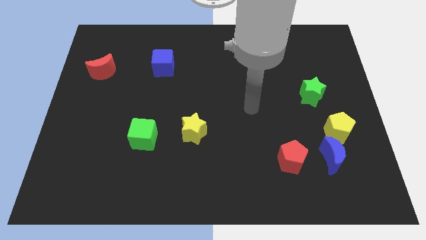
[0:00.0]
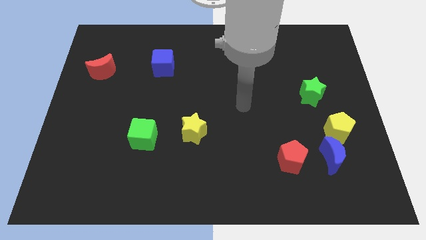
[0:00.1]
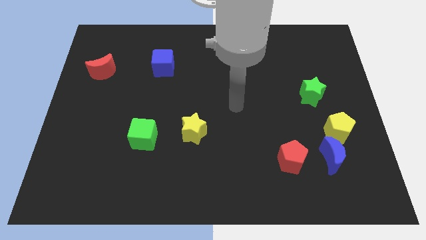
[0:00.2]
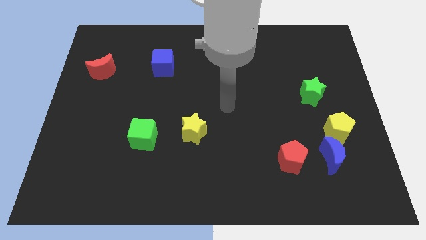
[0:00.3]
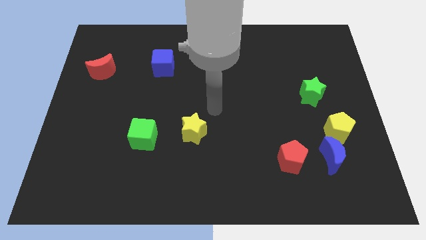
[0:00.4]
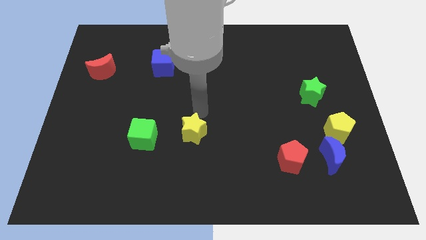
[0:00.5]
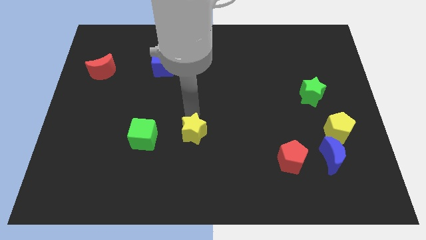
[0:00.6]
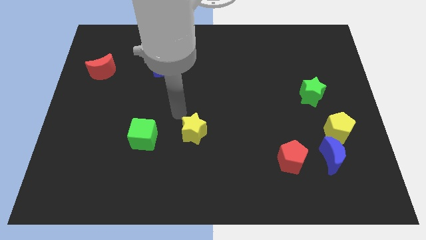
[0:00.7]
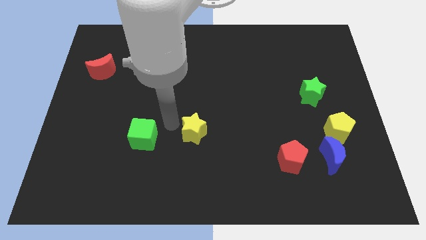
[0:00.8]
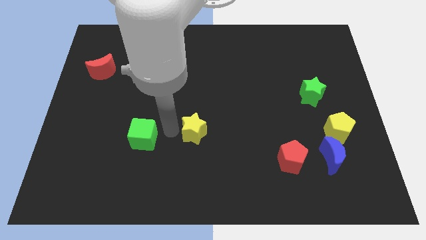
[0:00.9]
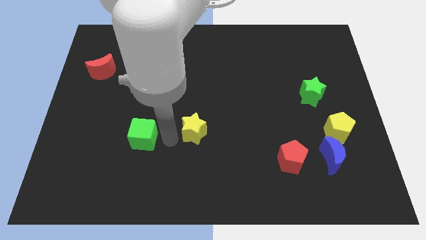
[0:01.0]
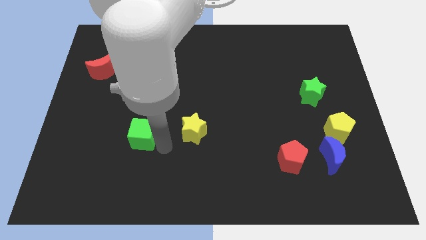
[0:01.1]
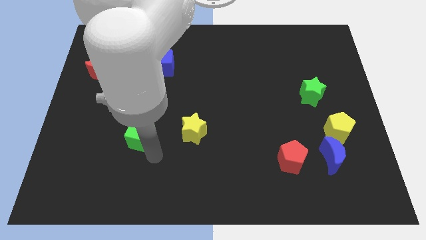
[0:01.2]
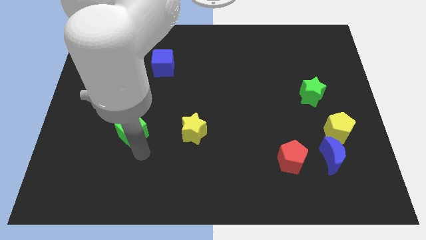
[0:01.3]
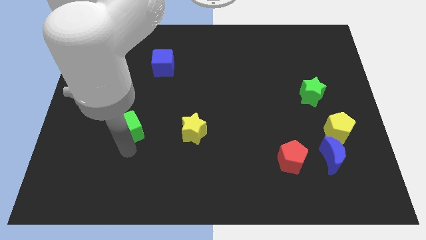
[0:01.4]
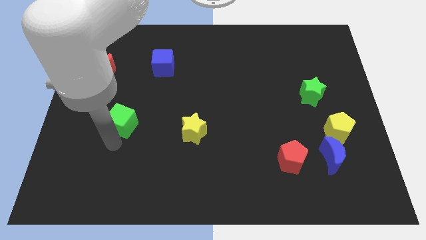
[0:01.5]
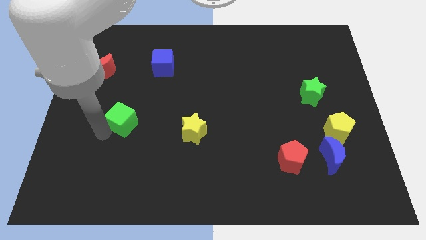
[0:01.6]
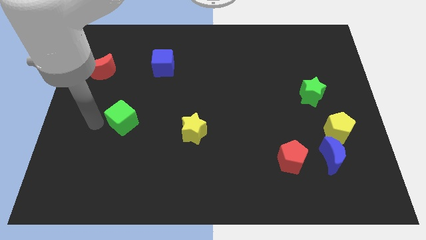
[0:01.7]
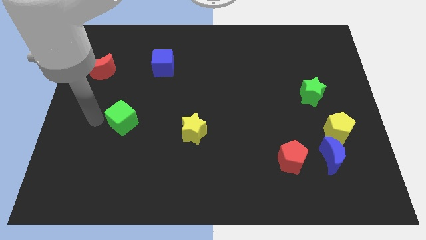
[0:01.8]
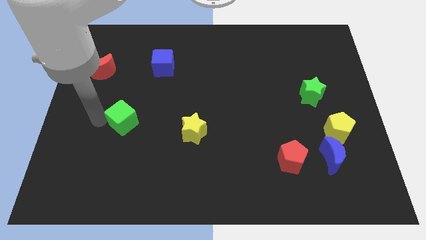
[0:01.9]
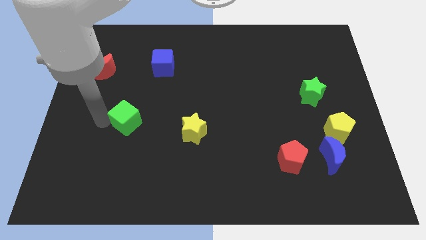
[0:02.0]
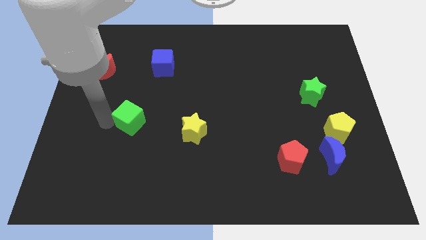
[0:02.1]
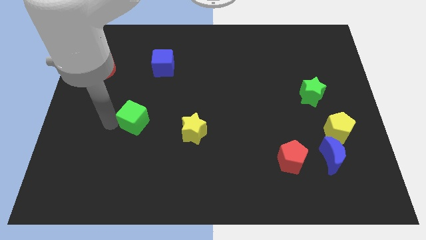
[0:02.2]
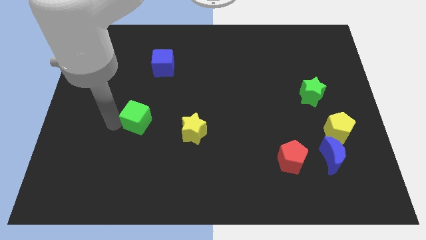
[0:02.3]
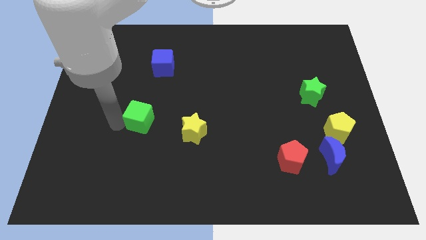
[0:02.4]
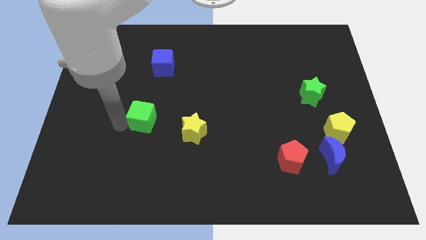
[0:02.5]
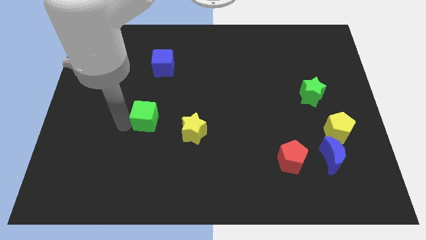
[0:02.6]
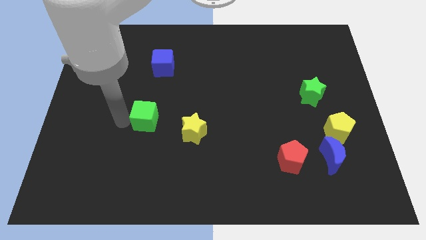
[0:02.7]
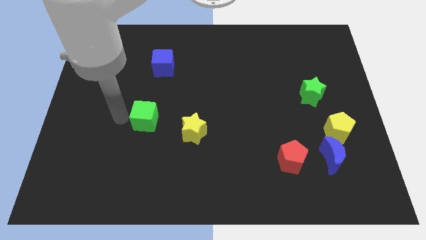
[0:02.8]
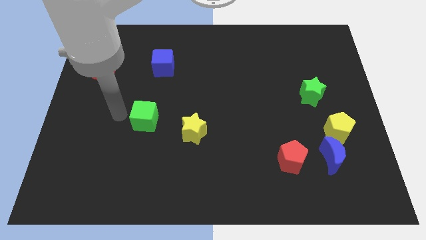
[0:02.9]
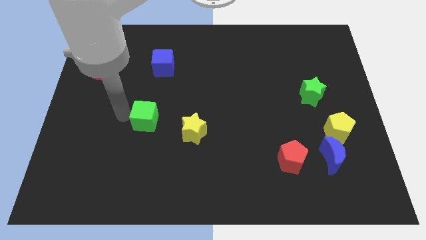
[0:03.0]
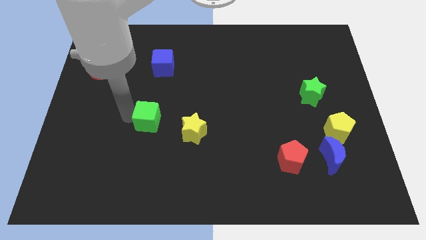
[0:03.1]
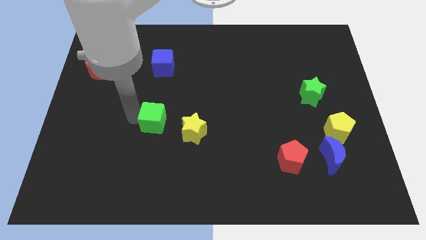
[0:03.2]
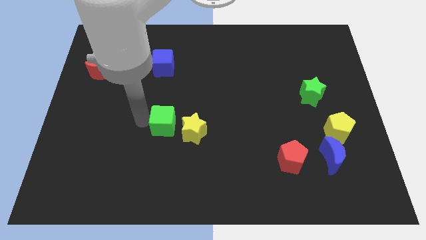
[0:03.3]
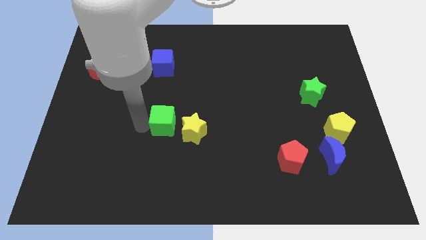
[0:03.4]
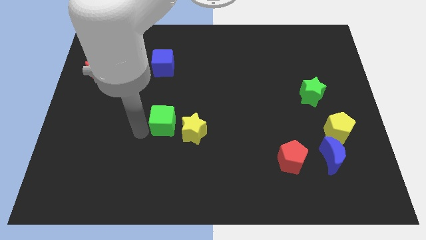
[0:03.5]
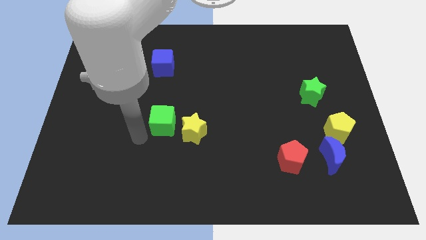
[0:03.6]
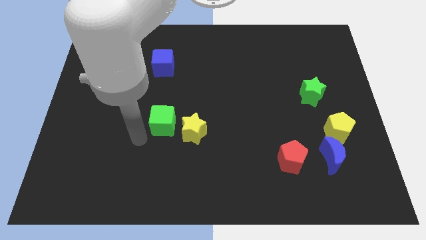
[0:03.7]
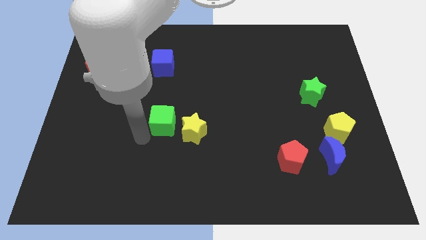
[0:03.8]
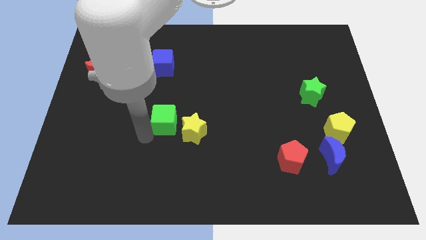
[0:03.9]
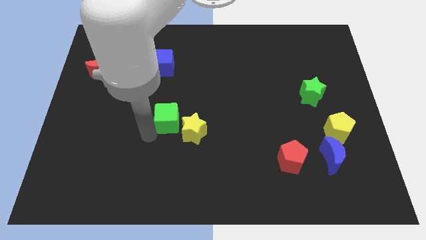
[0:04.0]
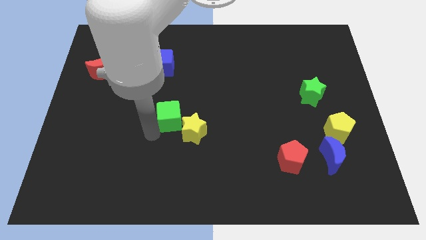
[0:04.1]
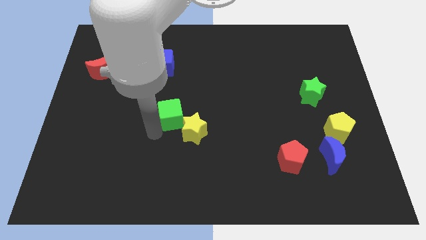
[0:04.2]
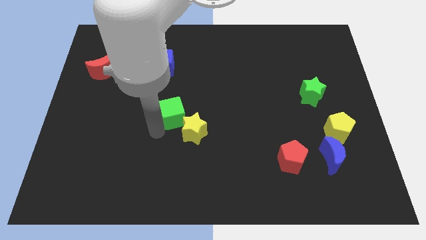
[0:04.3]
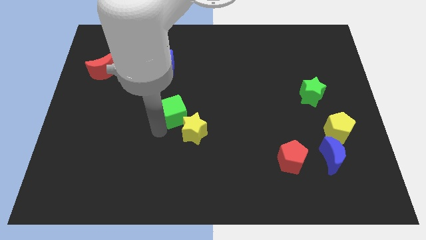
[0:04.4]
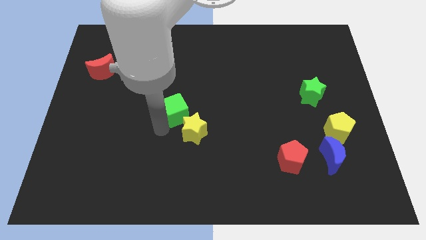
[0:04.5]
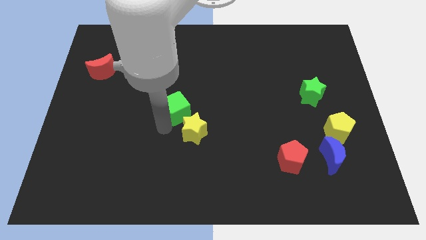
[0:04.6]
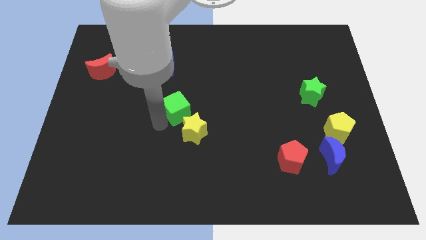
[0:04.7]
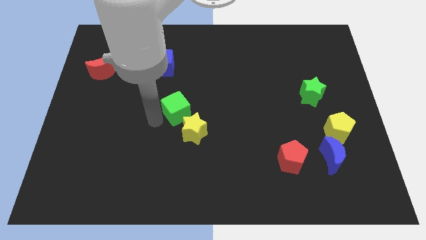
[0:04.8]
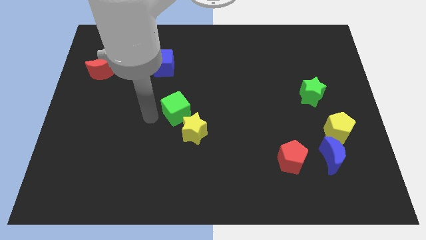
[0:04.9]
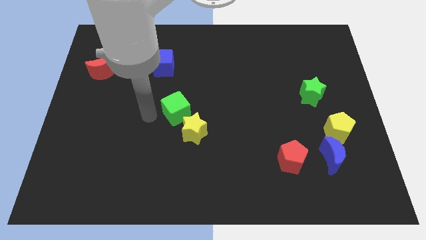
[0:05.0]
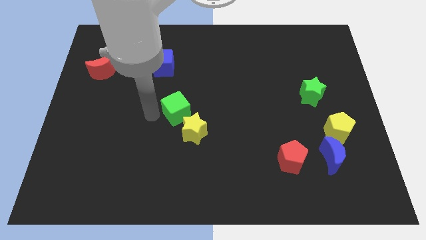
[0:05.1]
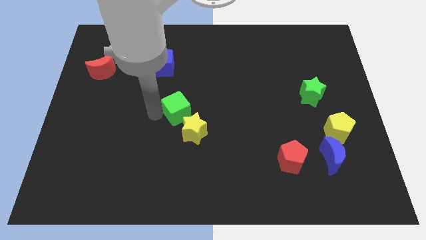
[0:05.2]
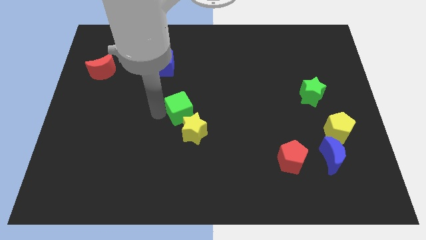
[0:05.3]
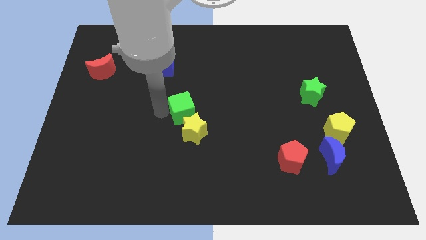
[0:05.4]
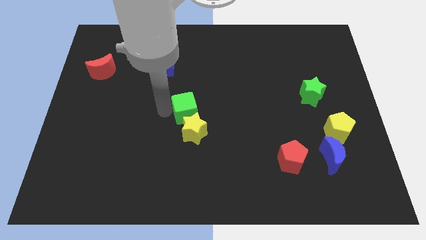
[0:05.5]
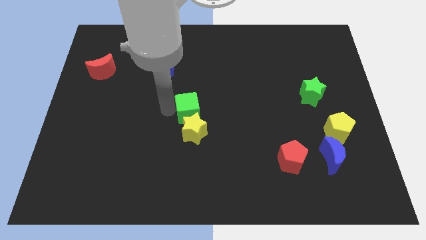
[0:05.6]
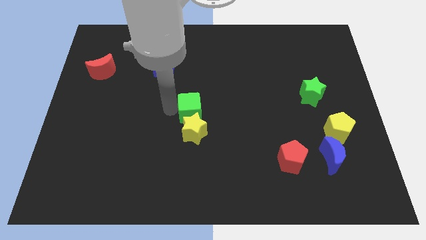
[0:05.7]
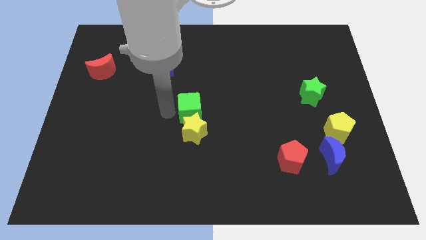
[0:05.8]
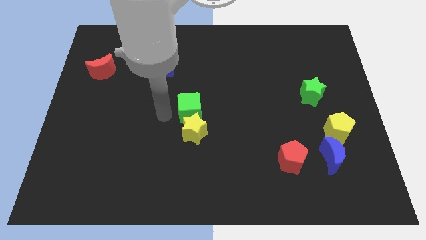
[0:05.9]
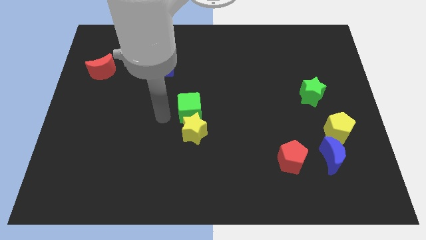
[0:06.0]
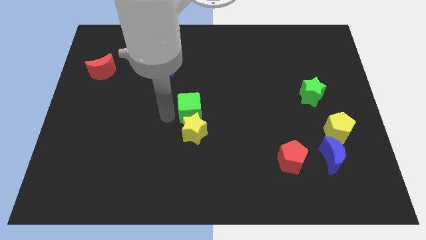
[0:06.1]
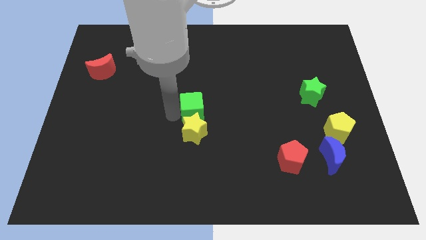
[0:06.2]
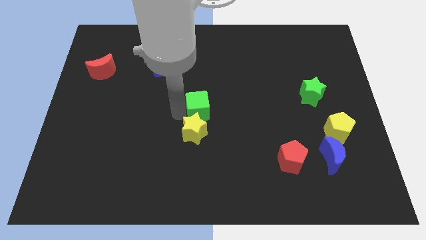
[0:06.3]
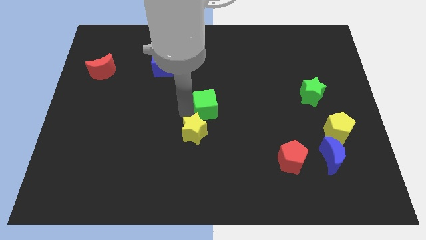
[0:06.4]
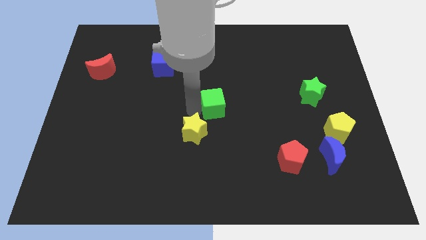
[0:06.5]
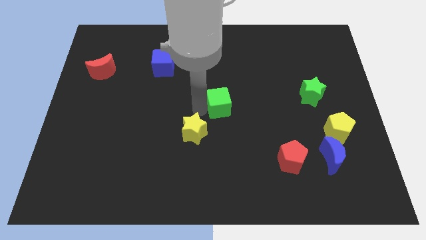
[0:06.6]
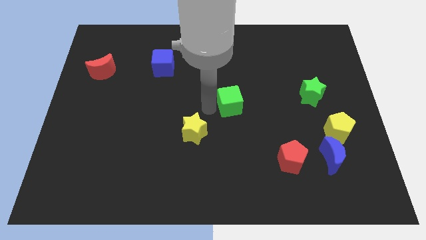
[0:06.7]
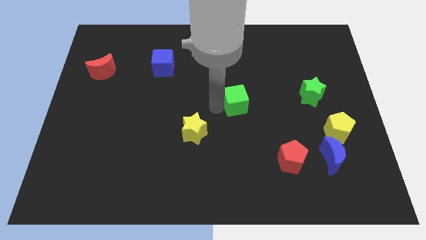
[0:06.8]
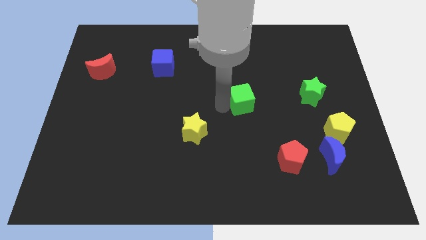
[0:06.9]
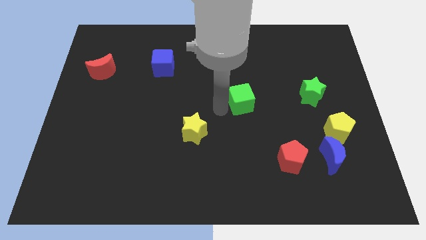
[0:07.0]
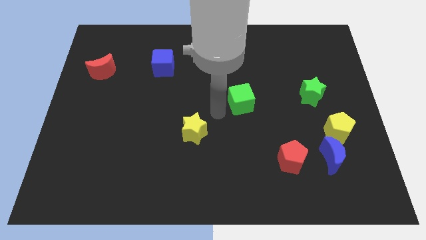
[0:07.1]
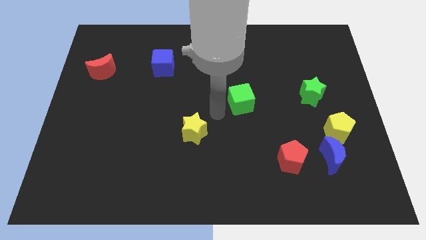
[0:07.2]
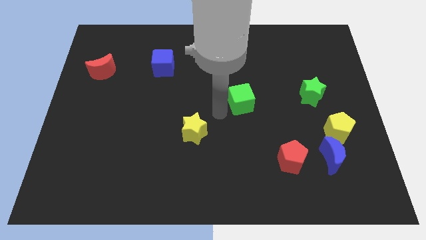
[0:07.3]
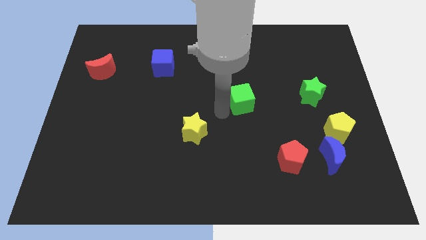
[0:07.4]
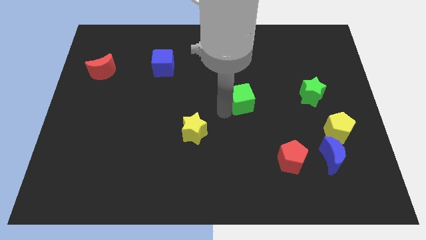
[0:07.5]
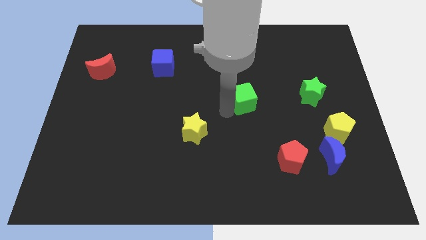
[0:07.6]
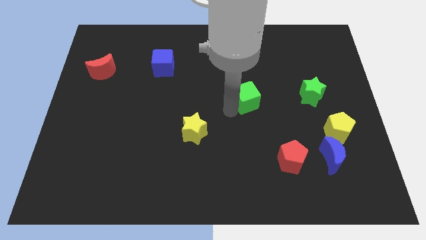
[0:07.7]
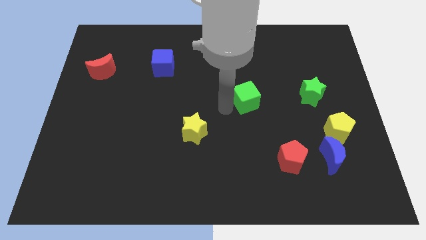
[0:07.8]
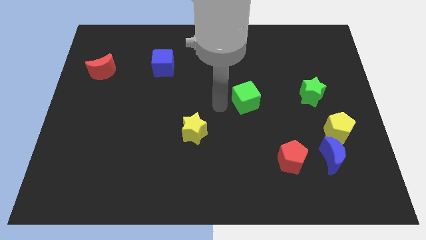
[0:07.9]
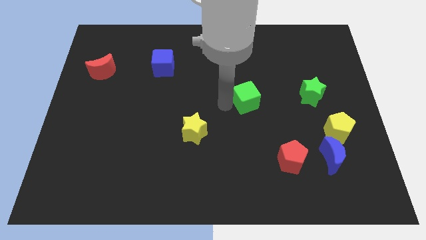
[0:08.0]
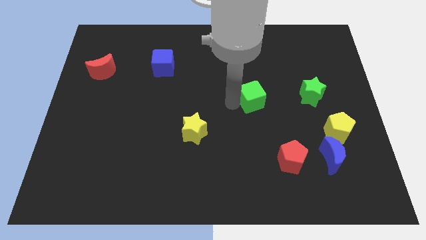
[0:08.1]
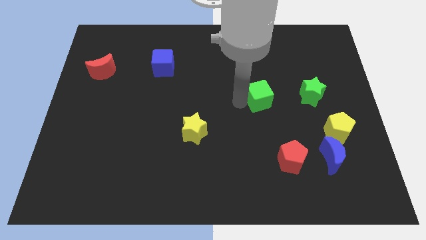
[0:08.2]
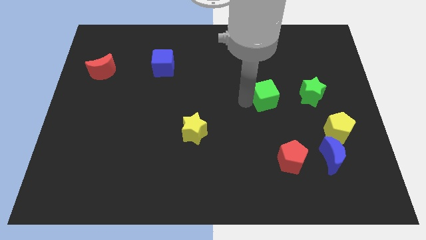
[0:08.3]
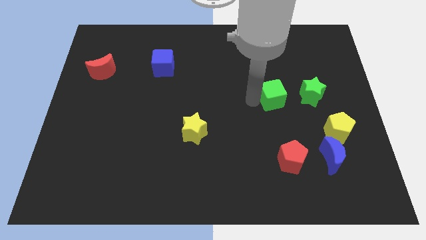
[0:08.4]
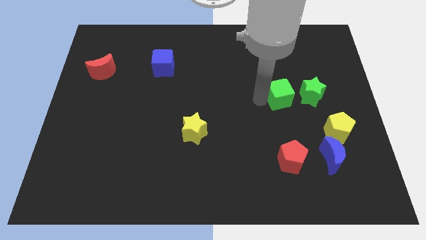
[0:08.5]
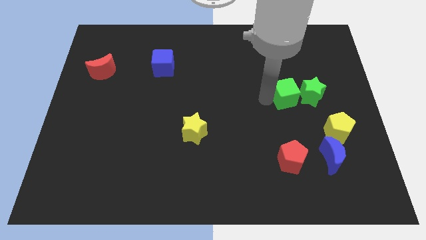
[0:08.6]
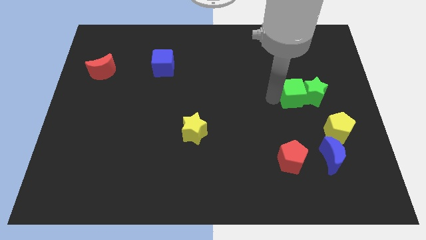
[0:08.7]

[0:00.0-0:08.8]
push the green cube close to the green star
